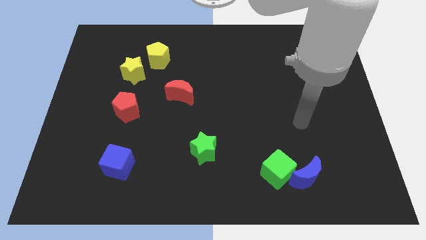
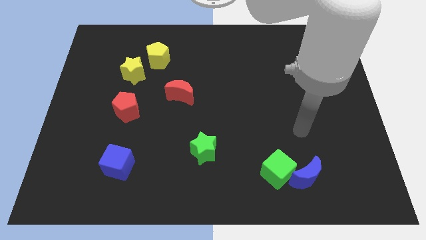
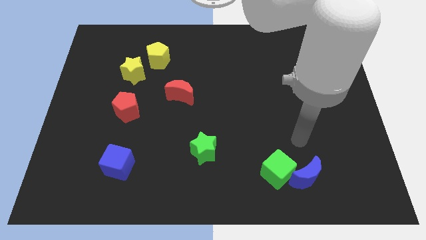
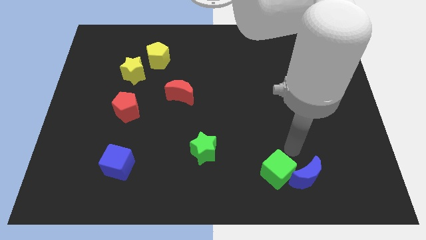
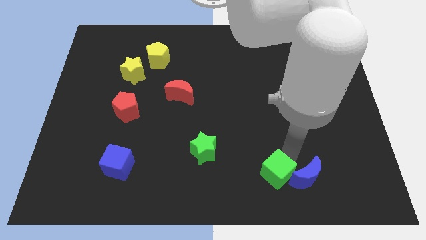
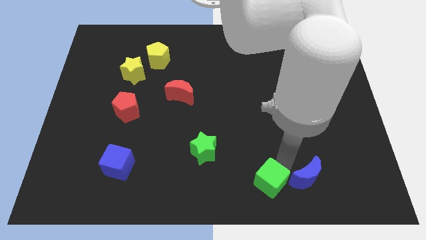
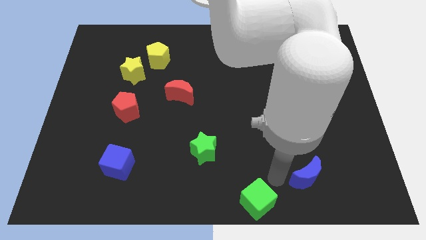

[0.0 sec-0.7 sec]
move the blue moon away from the green cube

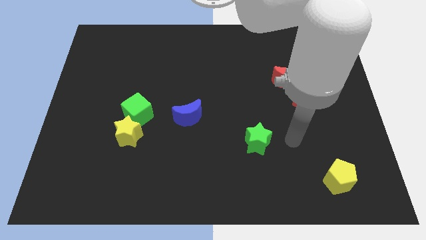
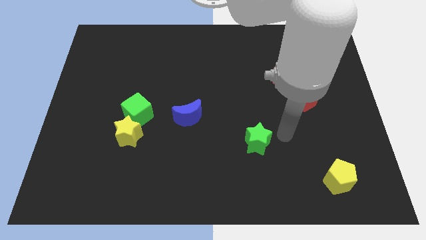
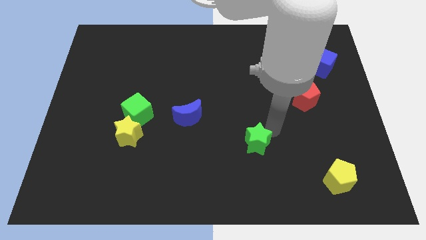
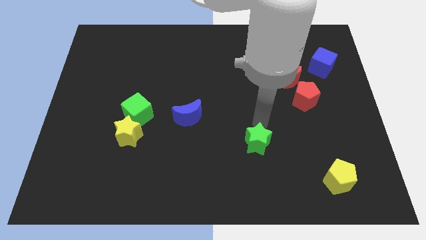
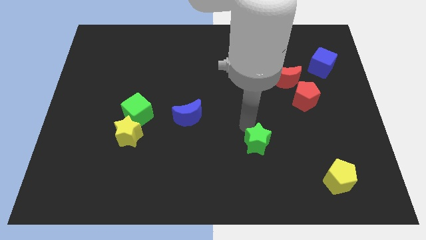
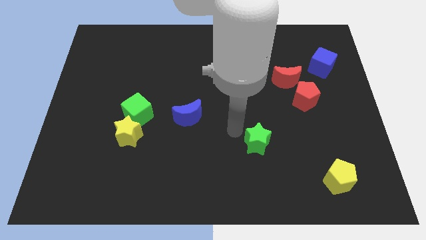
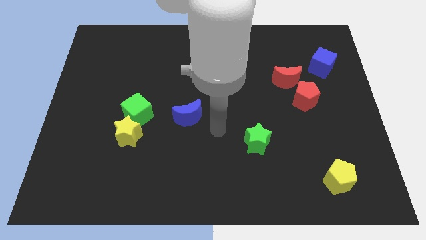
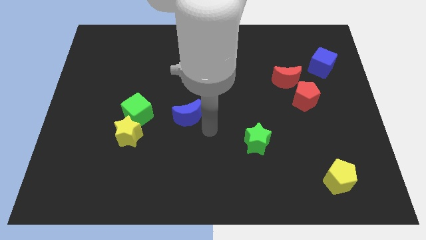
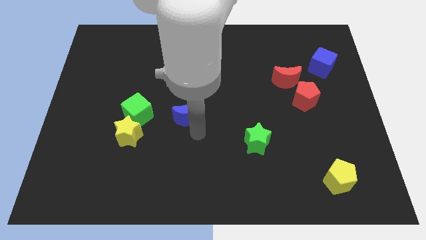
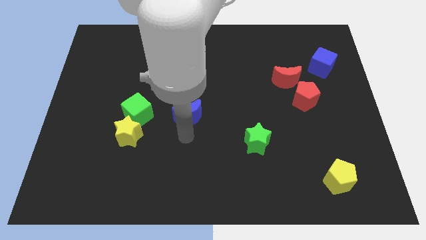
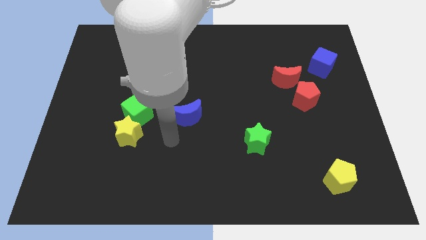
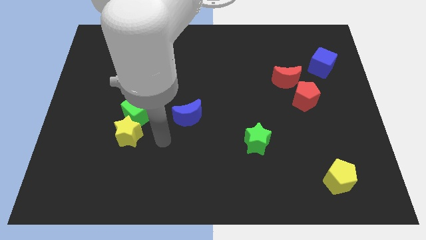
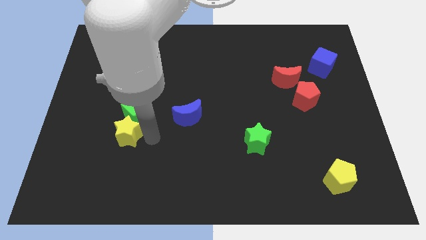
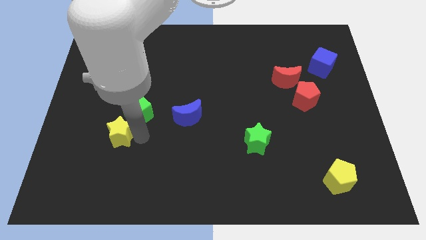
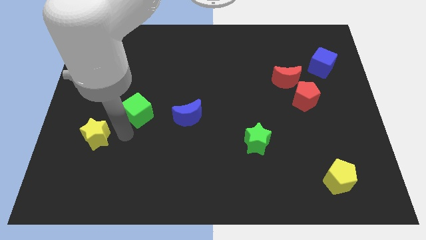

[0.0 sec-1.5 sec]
separate the green cube from the yellow star

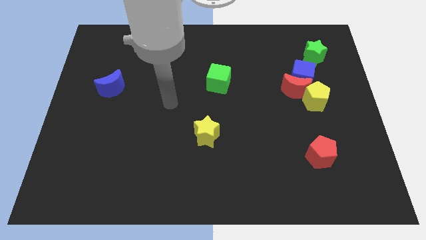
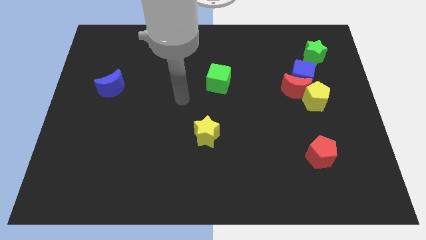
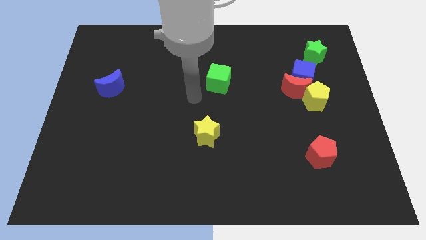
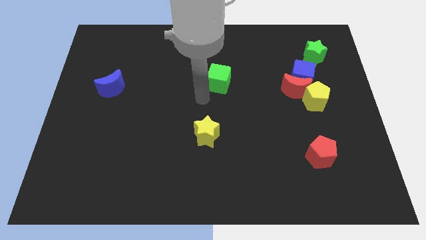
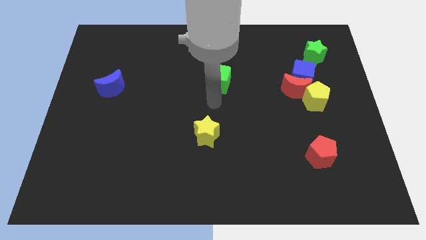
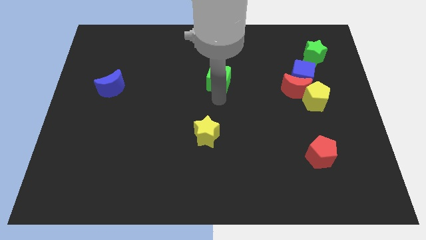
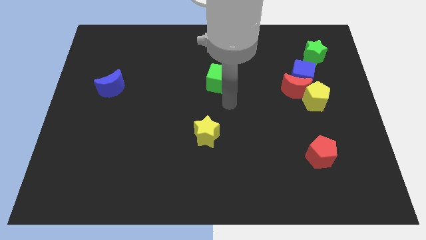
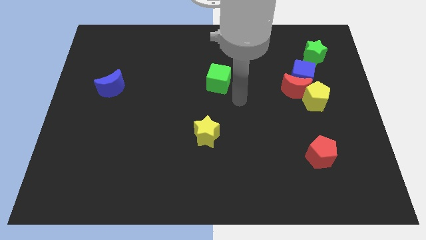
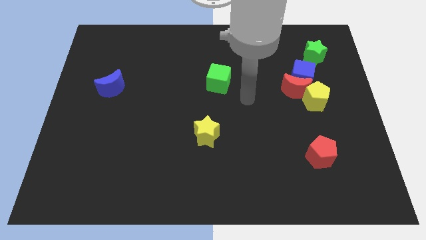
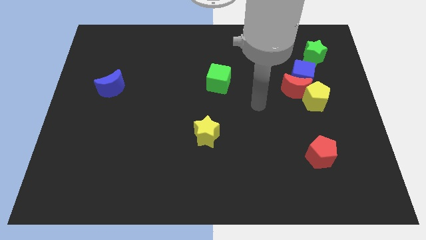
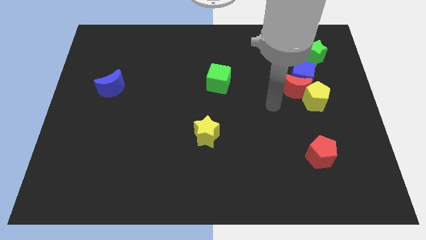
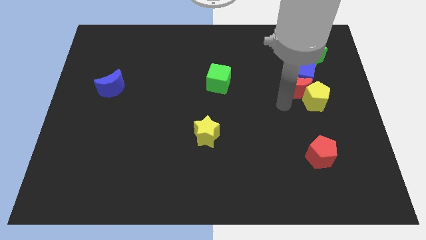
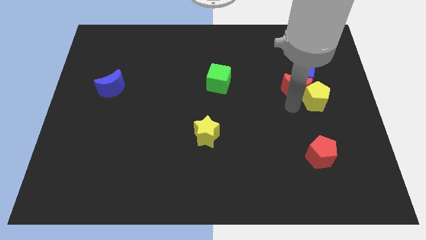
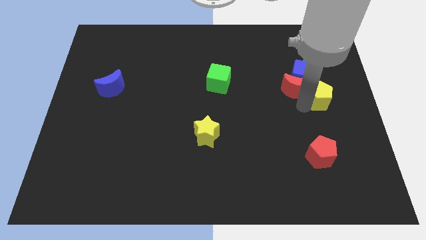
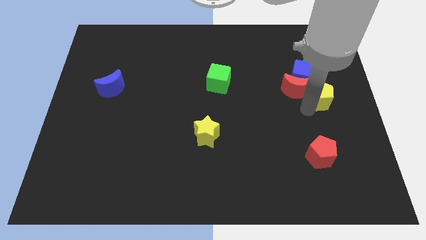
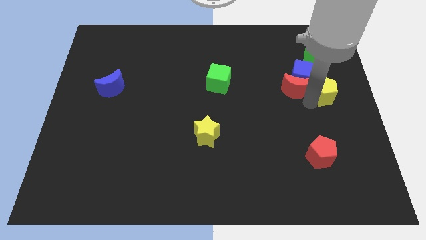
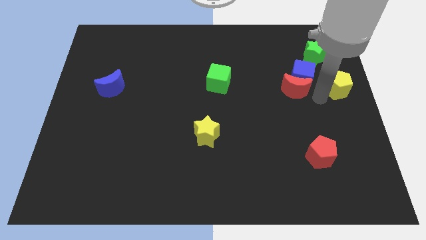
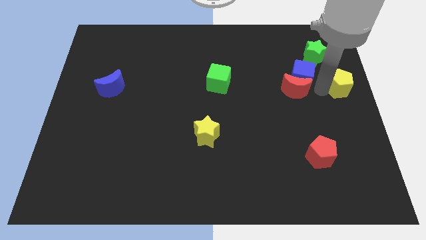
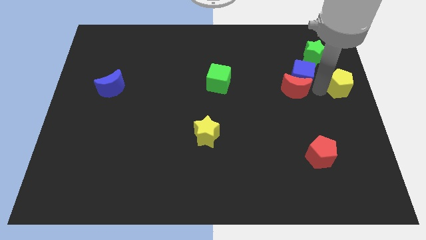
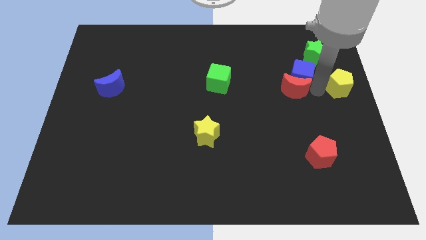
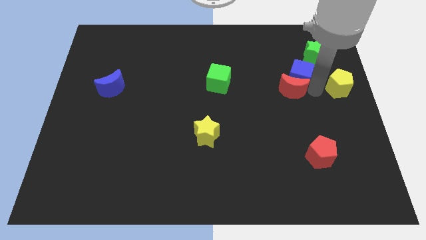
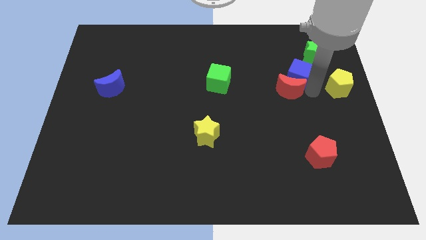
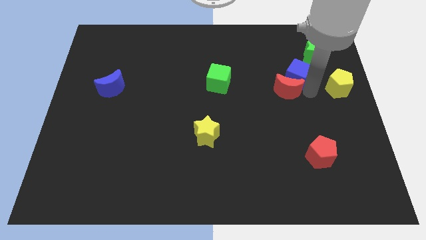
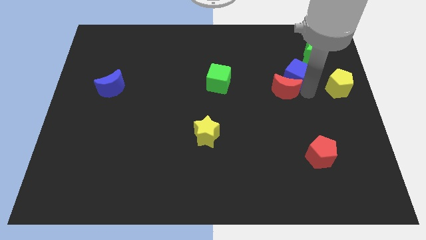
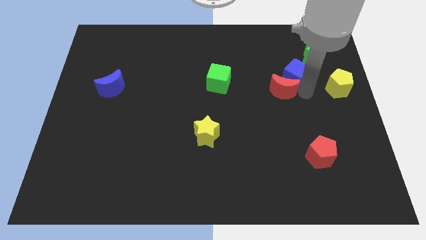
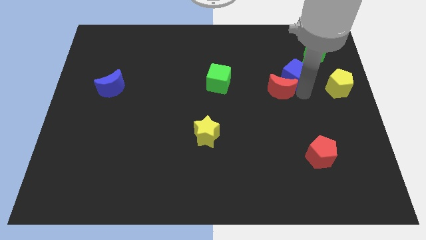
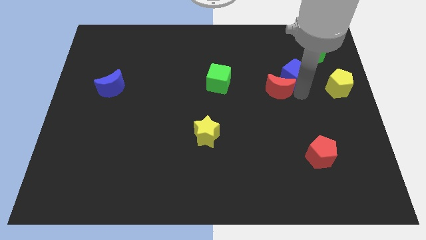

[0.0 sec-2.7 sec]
move the red moon away from the blue cube and yellow pentagon

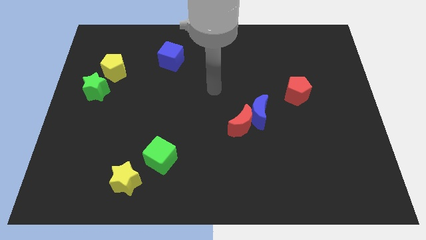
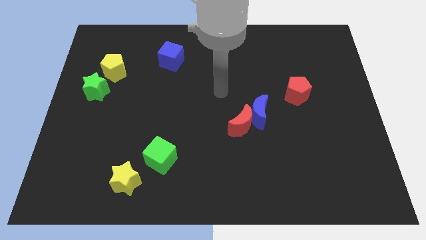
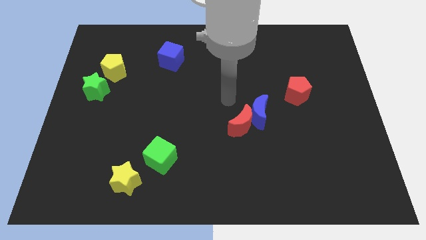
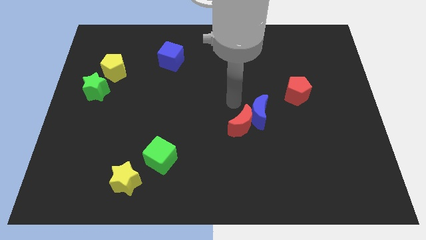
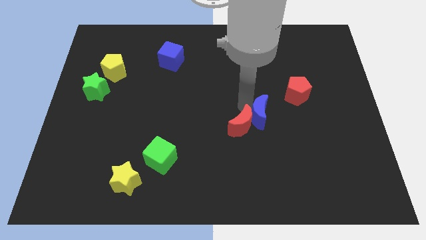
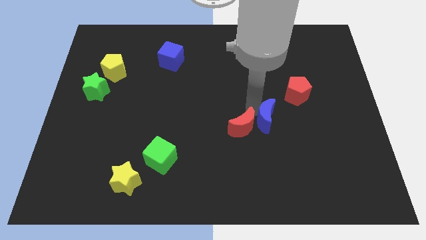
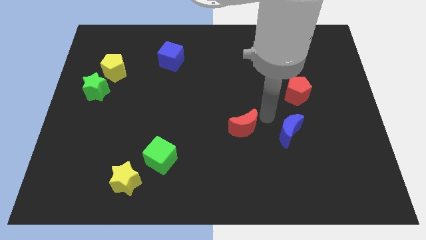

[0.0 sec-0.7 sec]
move the red moon away from the blue moon

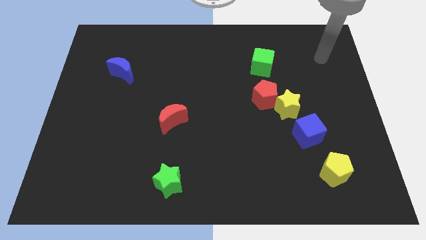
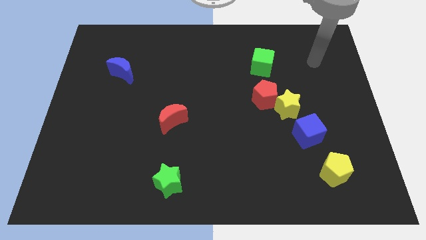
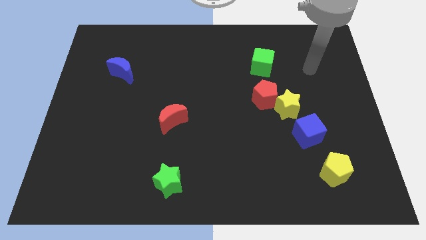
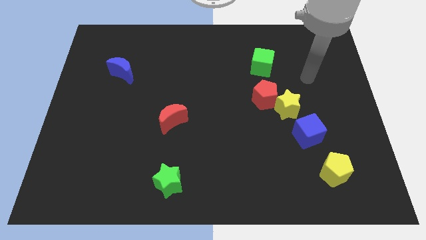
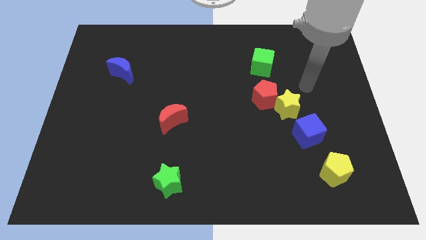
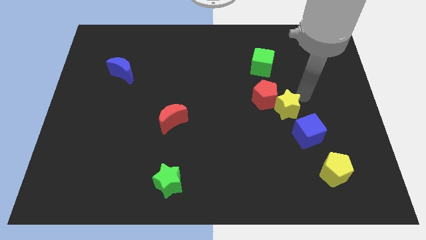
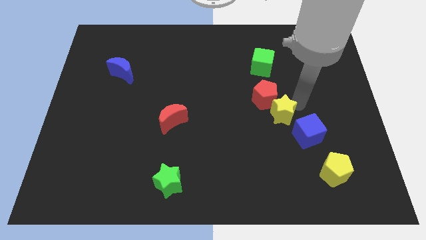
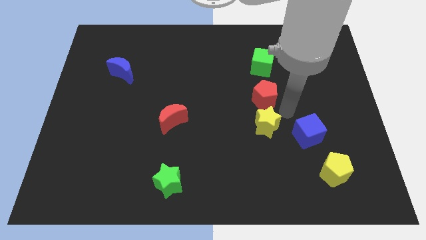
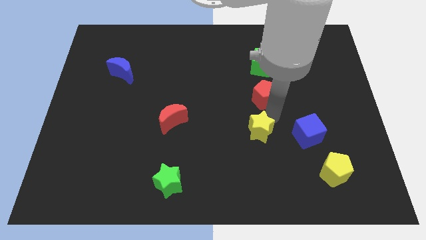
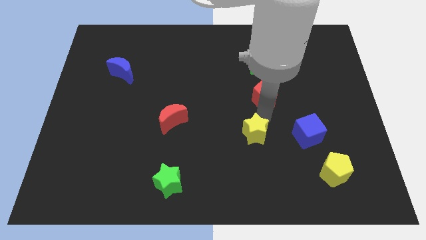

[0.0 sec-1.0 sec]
move the red pentagon away from the yellow star

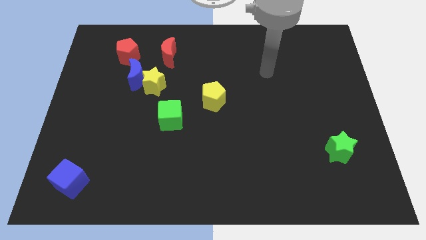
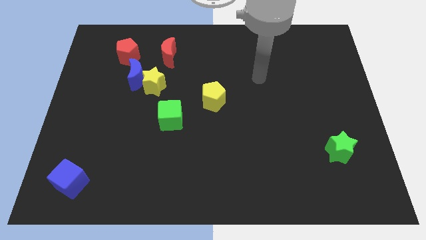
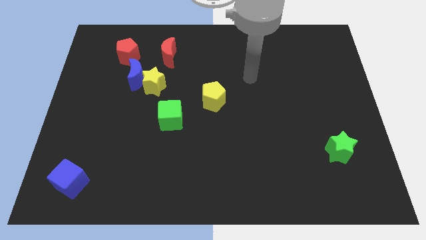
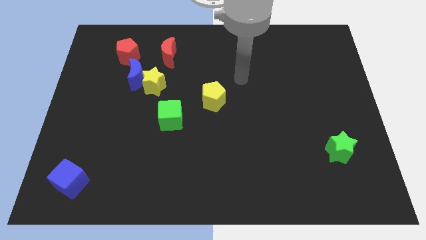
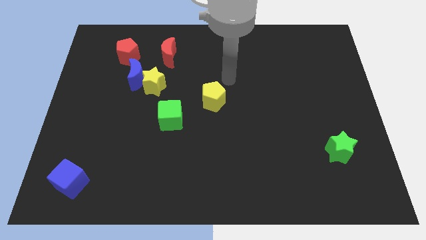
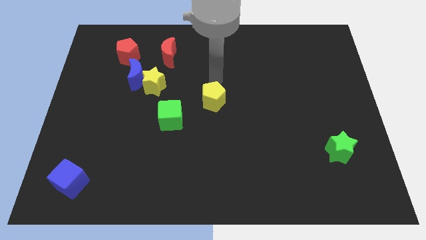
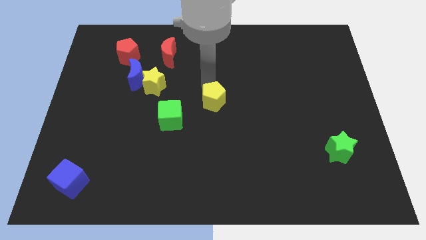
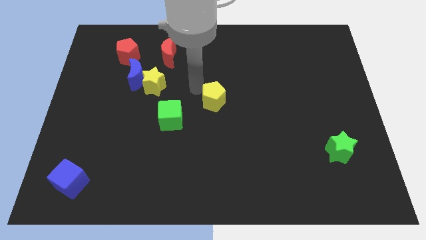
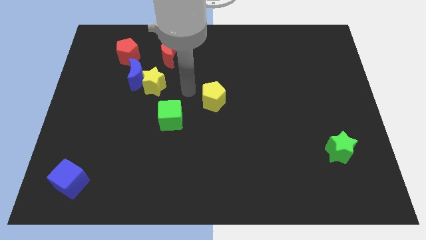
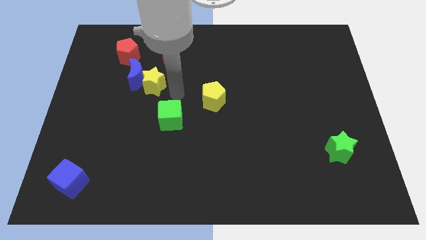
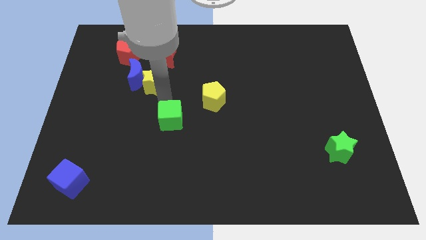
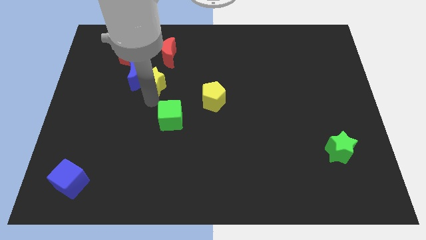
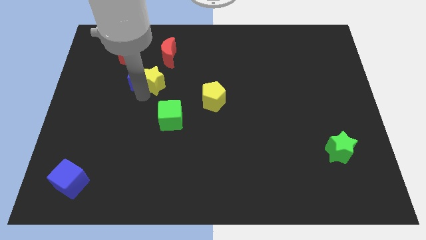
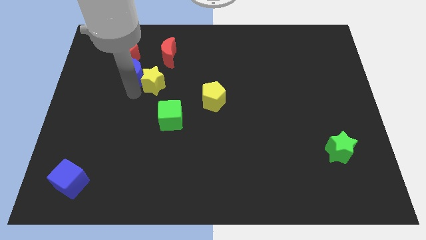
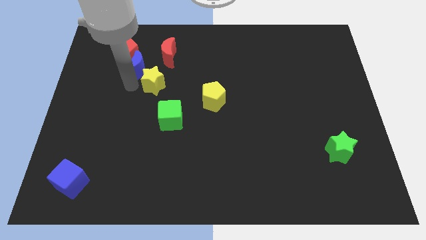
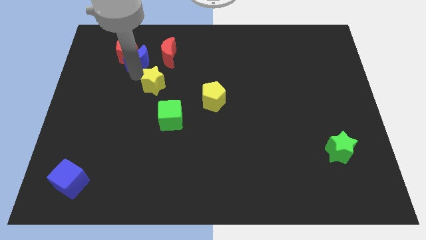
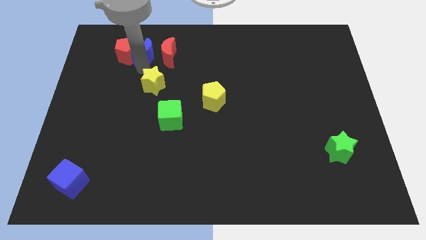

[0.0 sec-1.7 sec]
move the yellow star away from the blue moon

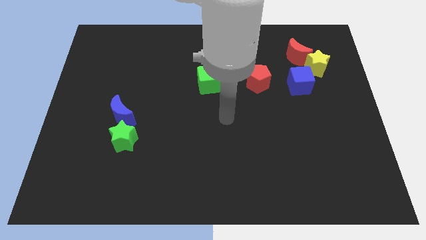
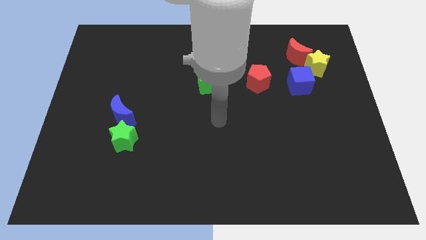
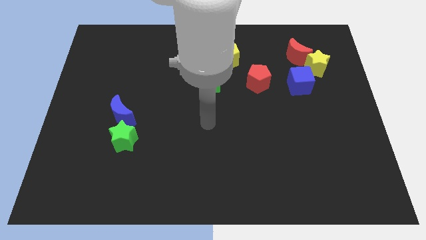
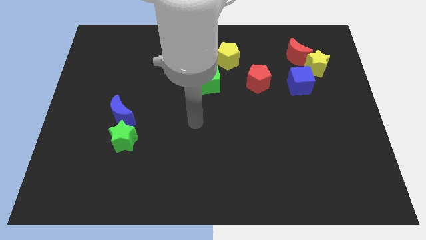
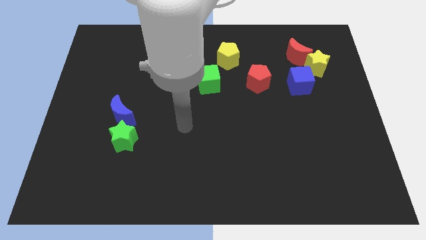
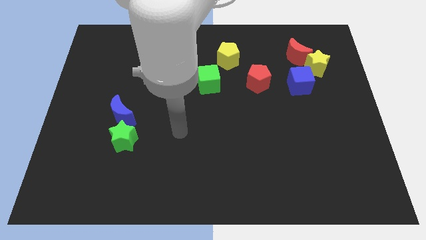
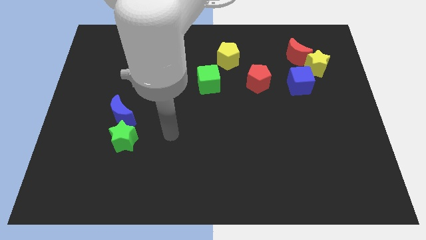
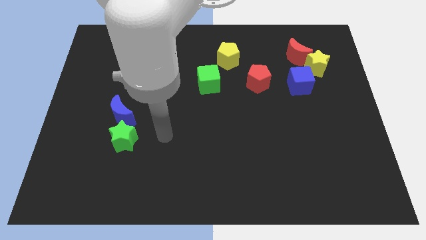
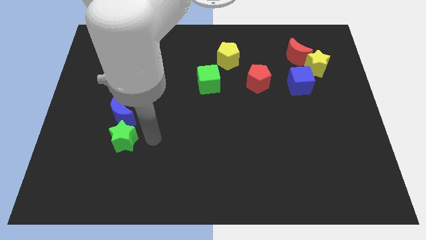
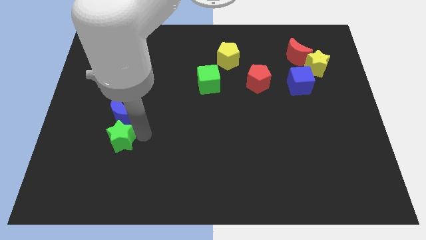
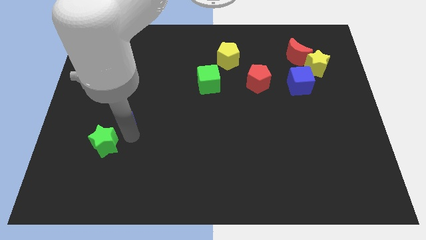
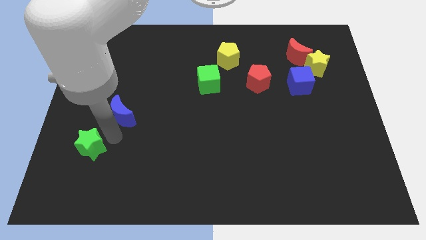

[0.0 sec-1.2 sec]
separate the blue moon from the green star
